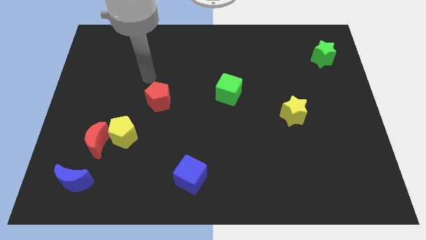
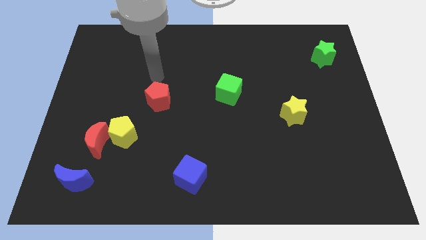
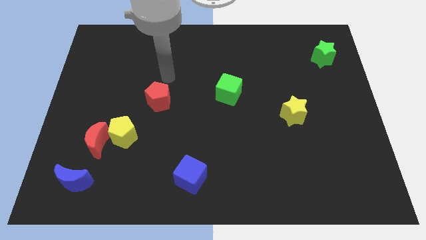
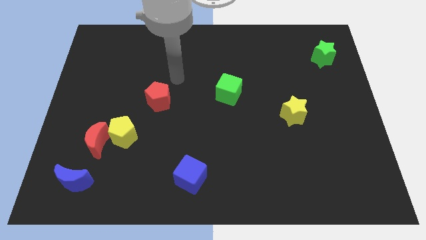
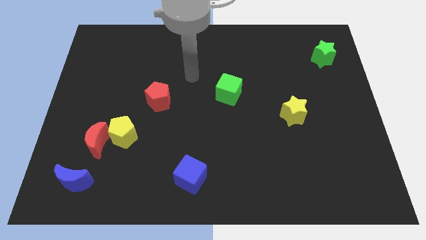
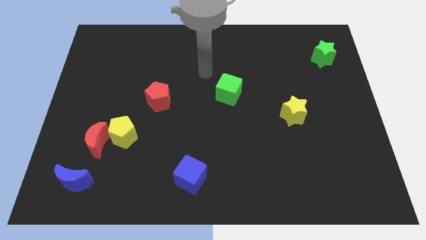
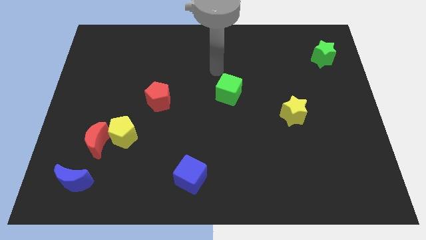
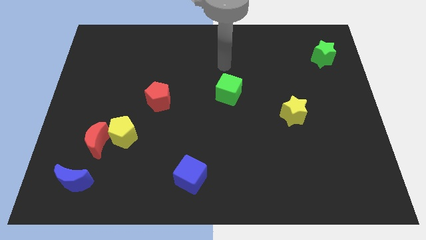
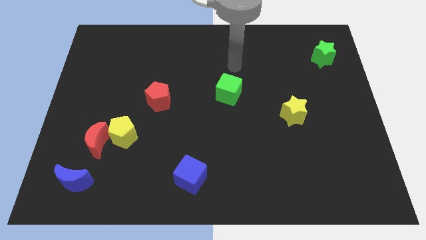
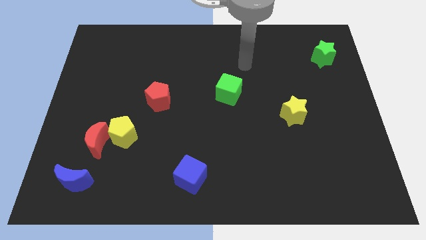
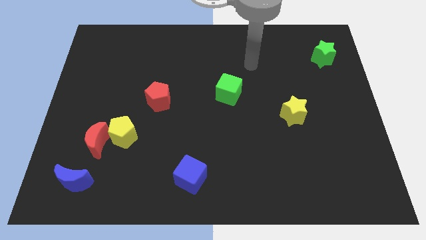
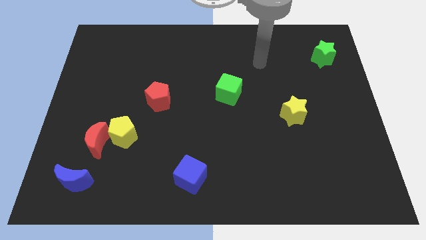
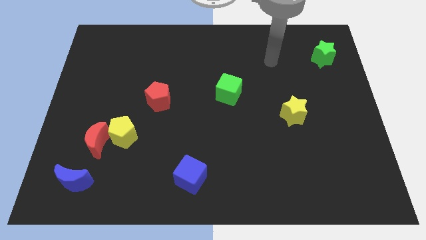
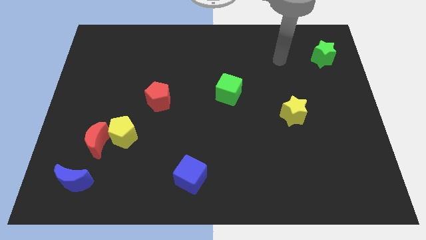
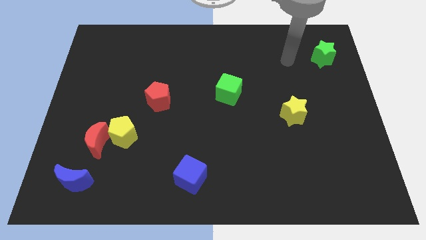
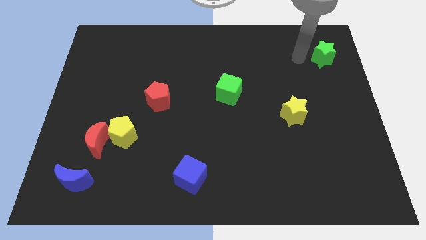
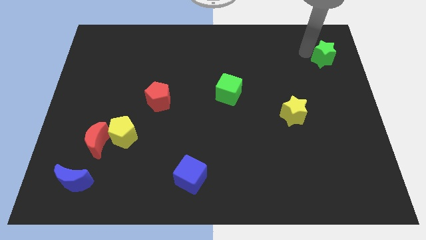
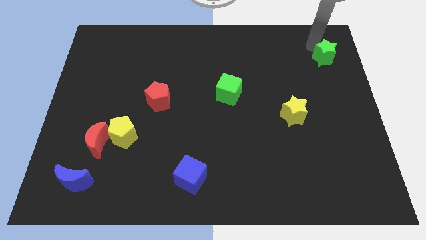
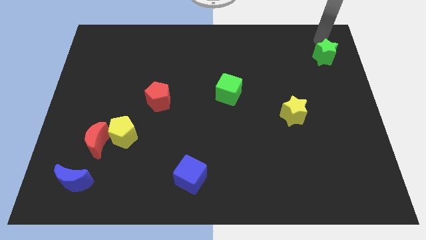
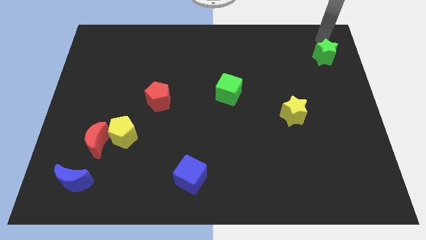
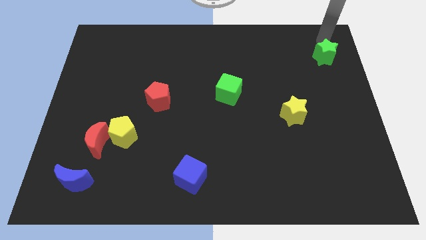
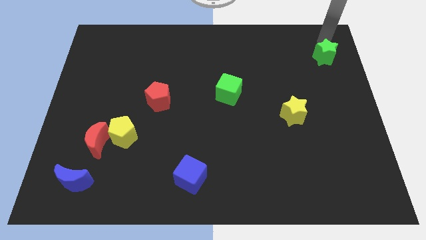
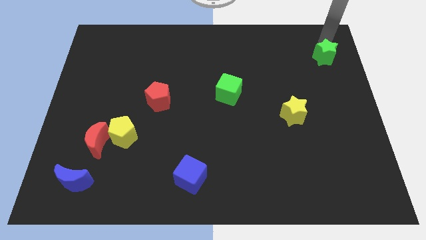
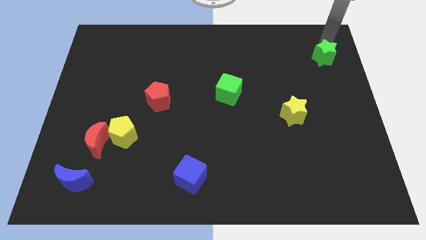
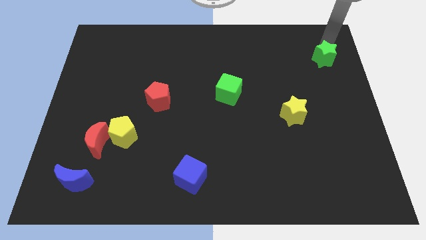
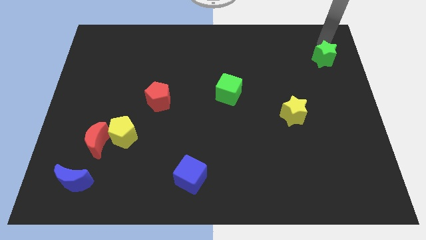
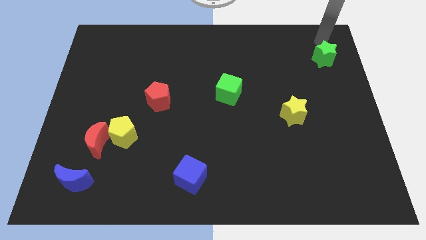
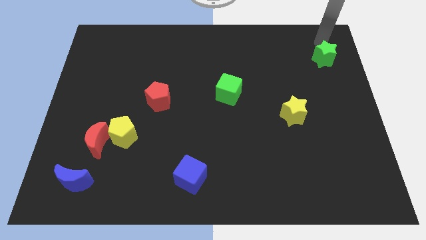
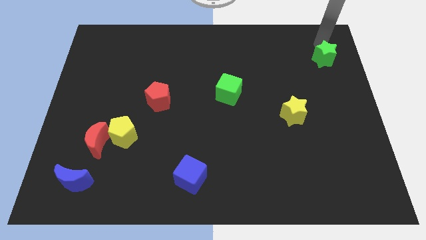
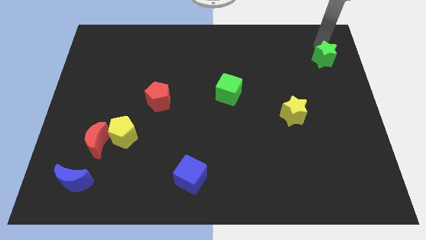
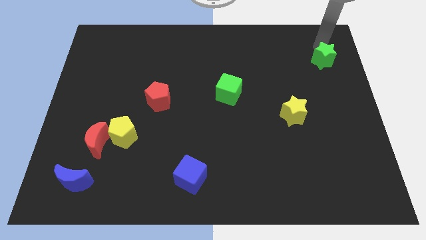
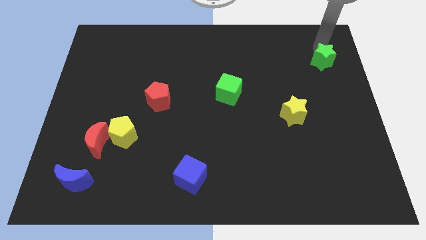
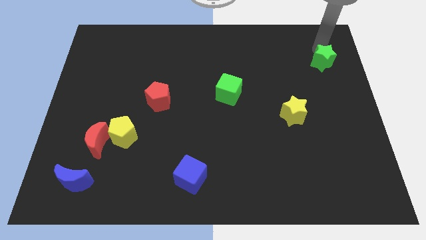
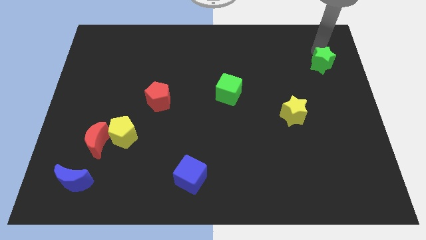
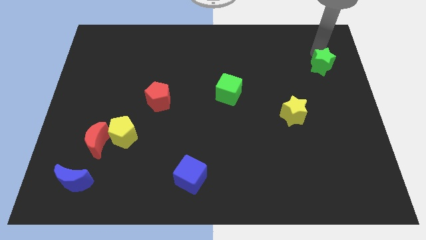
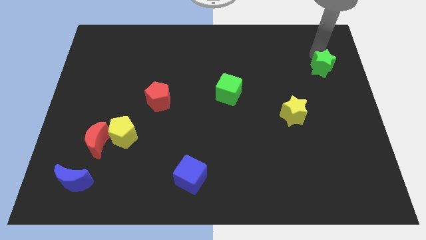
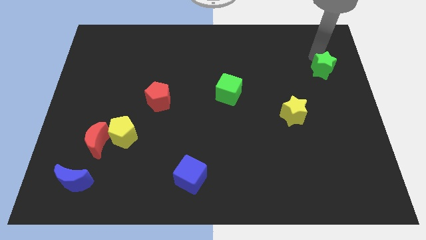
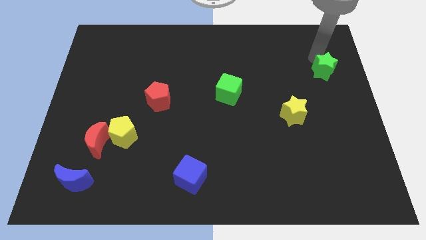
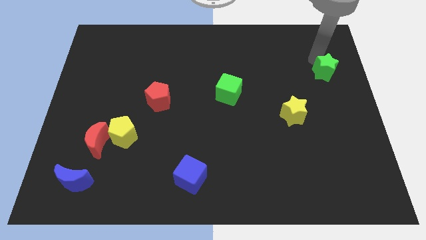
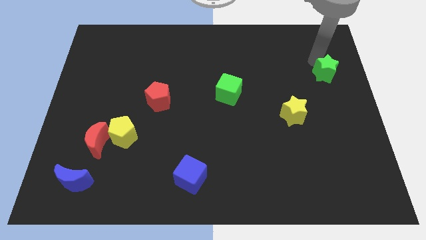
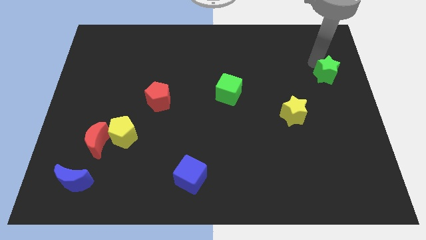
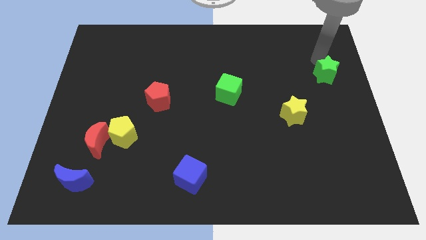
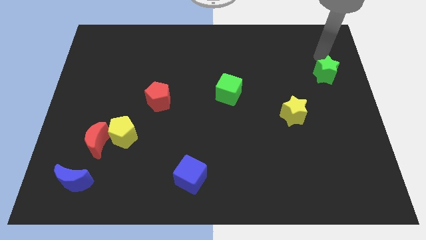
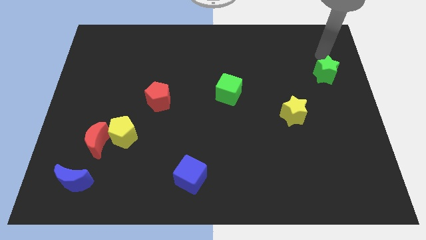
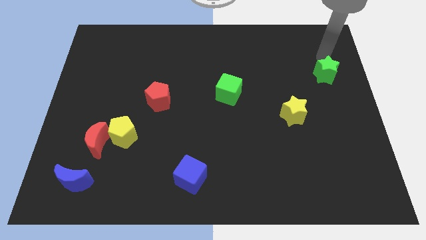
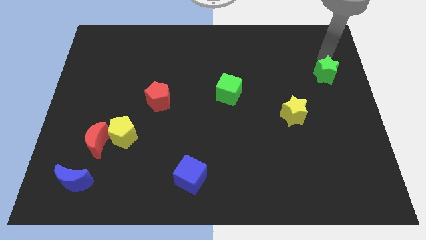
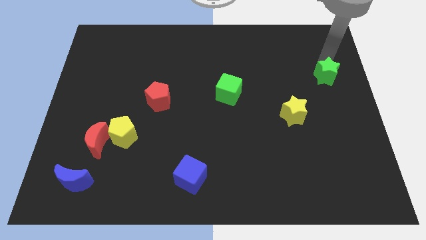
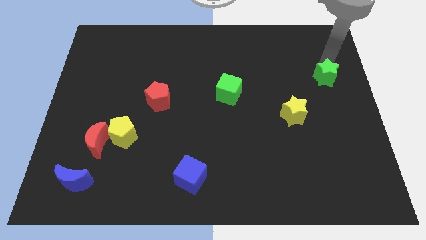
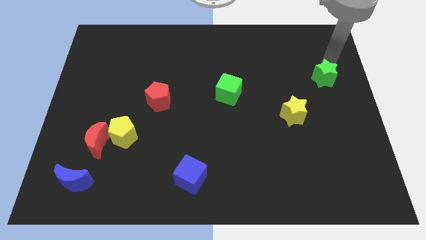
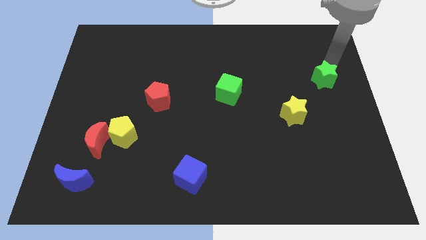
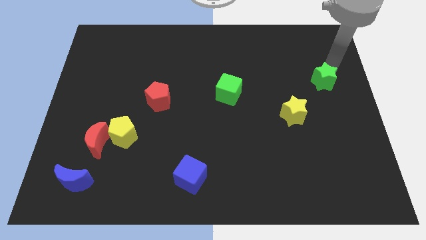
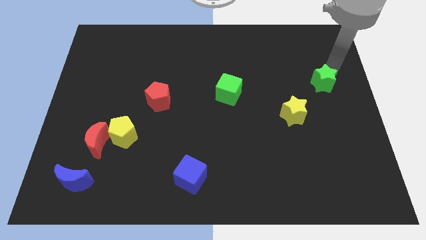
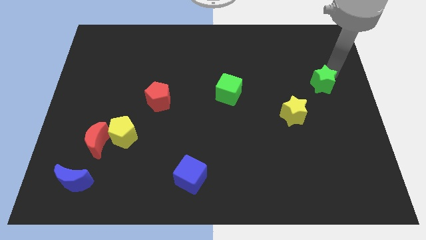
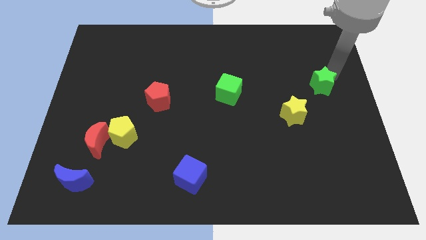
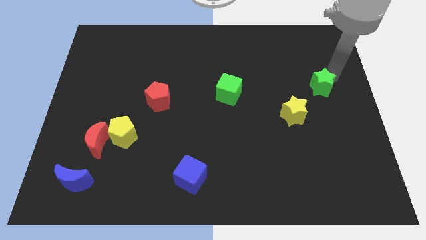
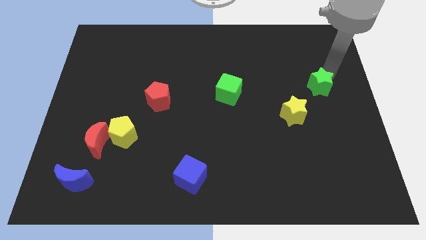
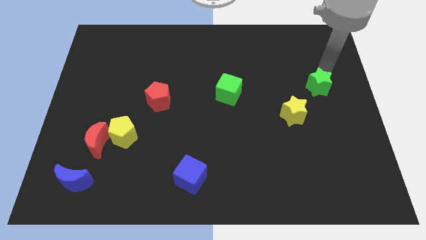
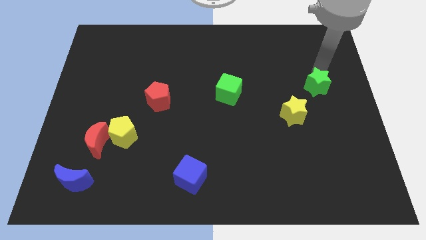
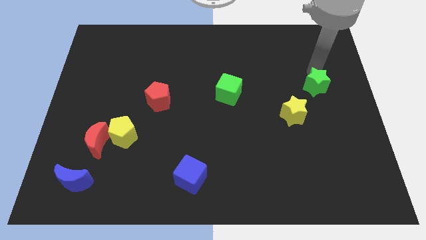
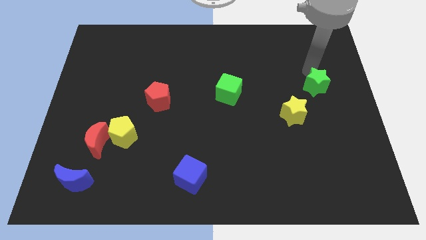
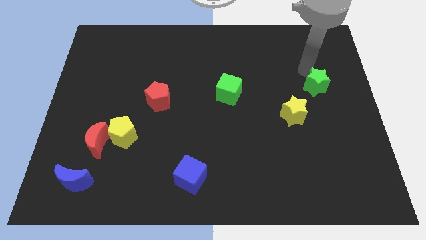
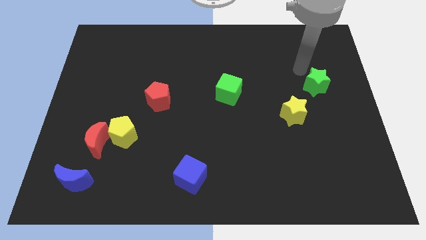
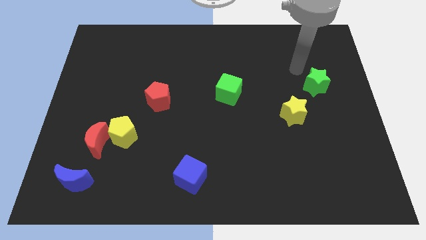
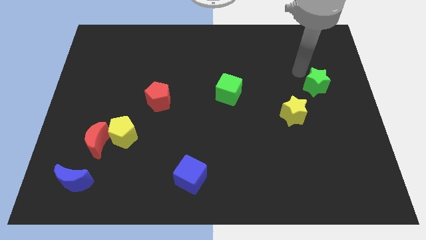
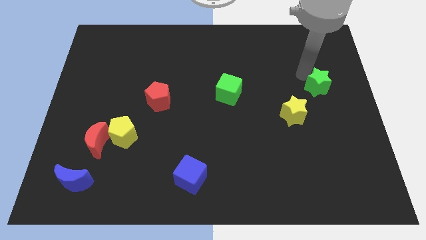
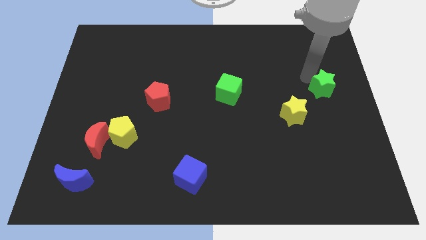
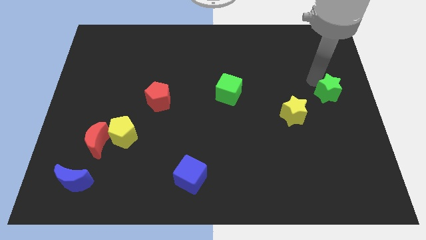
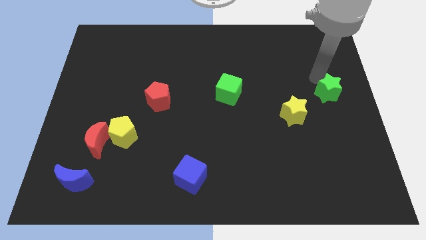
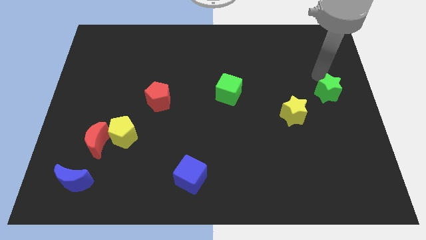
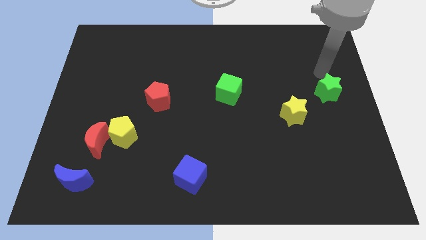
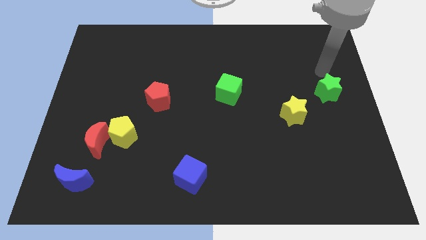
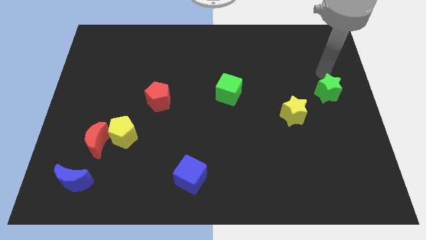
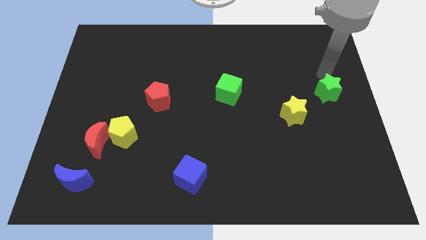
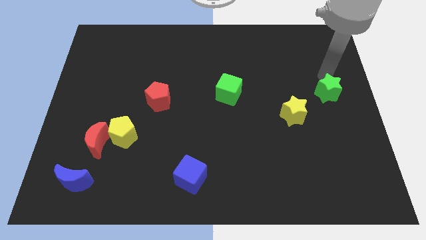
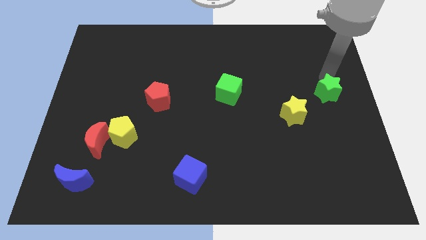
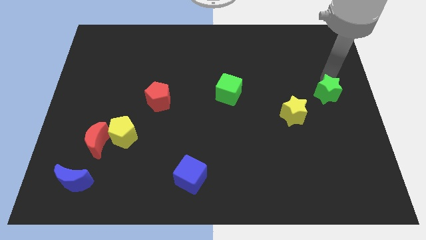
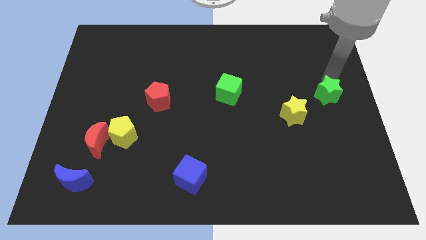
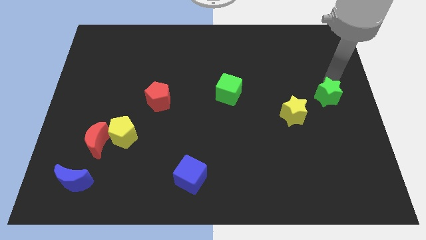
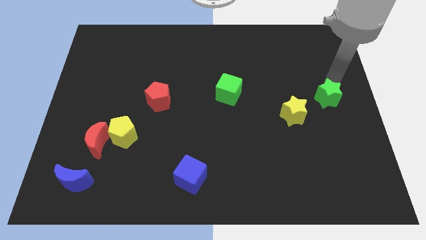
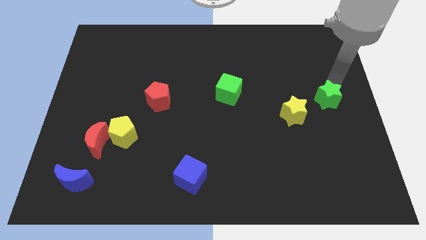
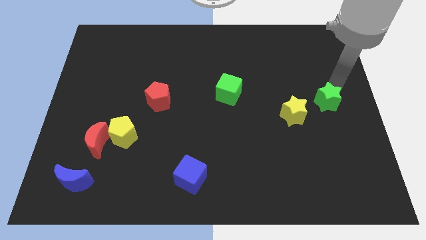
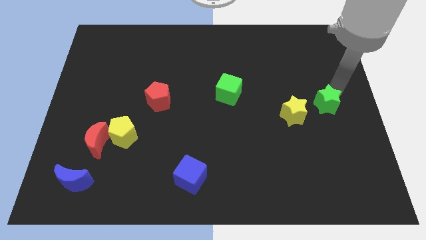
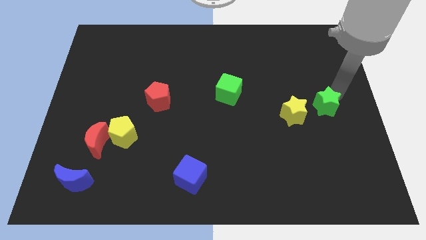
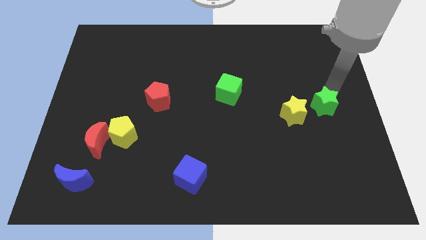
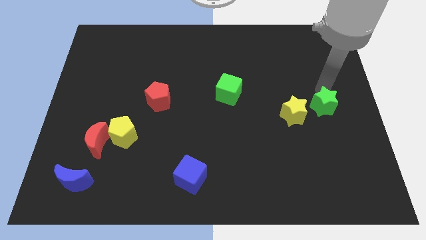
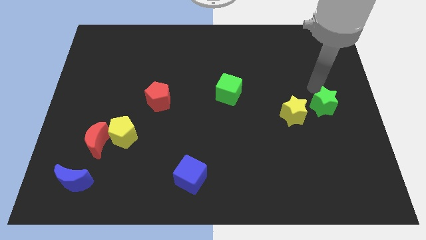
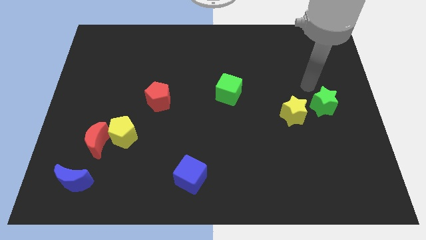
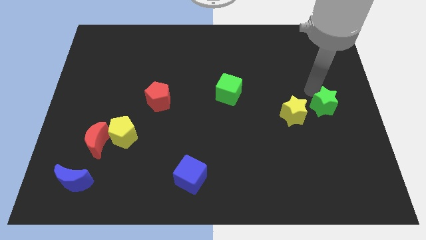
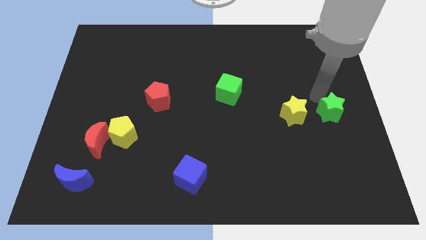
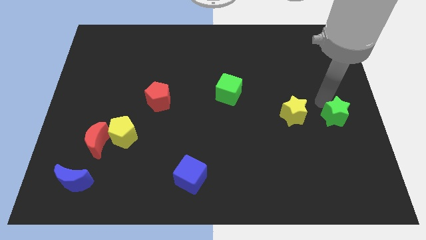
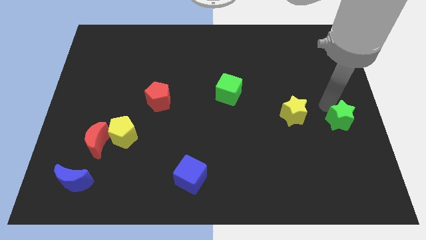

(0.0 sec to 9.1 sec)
move the green star downwards
